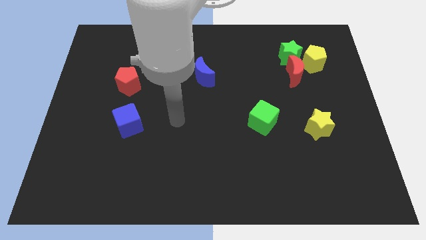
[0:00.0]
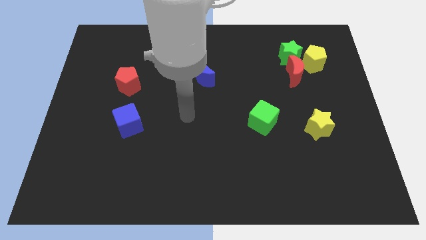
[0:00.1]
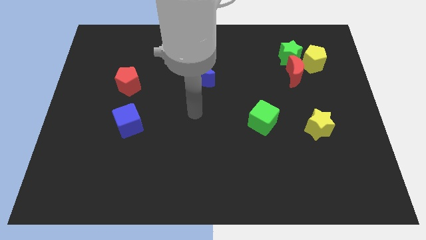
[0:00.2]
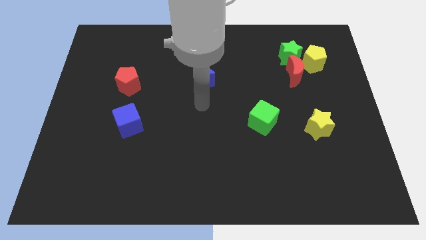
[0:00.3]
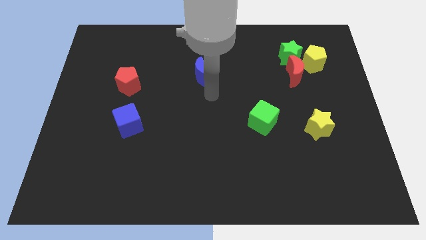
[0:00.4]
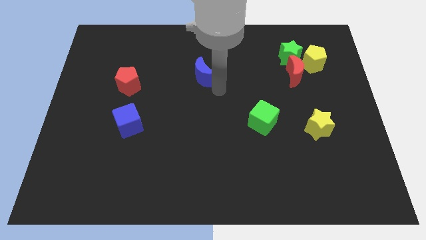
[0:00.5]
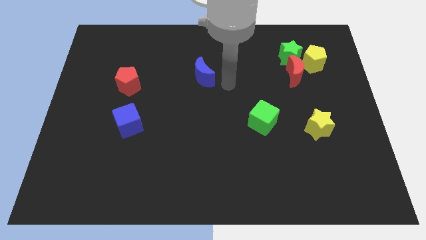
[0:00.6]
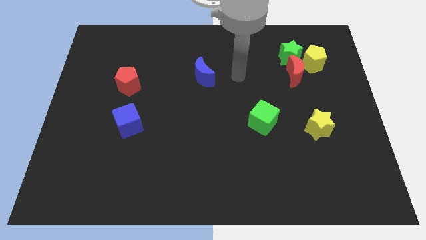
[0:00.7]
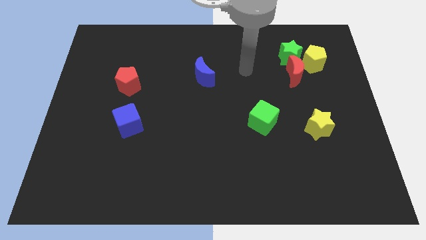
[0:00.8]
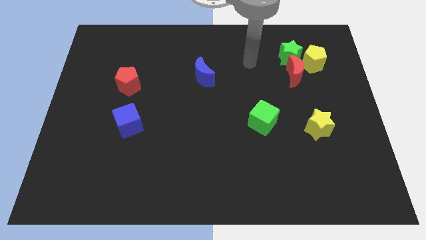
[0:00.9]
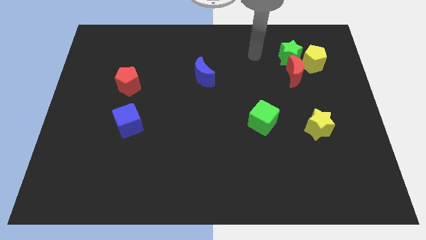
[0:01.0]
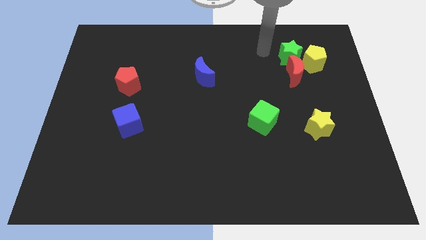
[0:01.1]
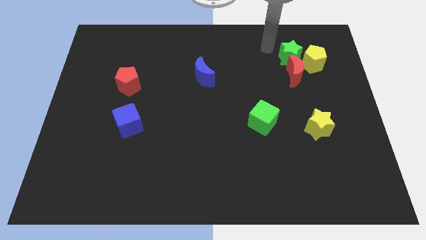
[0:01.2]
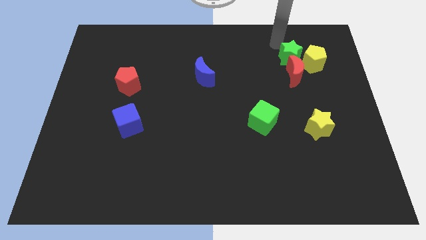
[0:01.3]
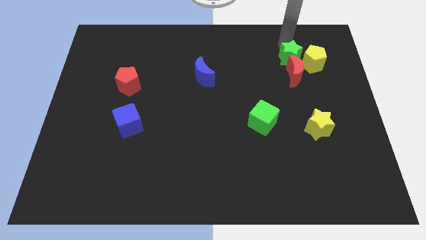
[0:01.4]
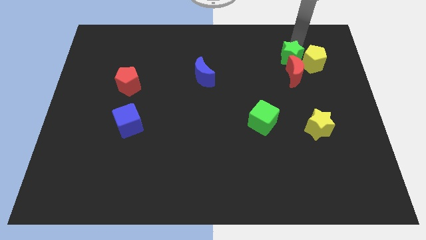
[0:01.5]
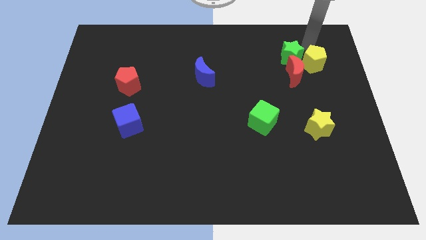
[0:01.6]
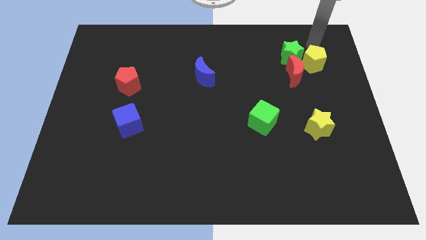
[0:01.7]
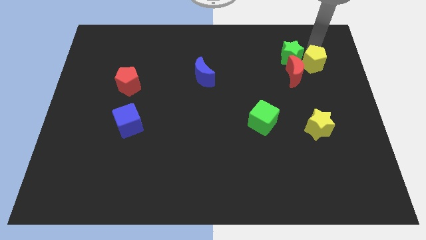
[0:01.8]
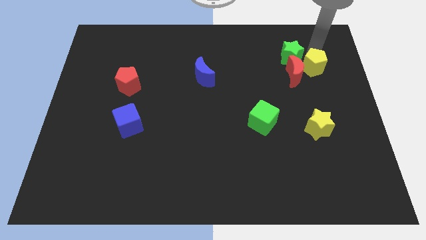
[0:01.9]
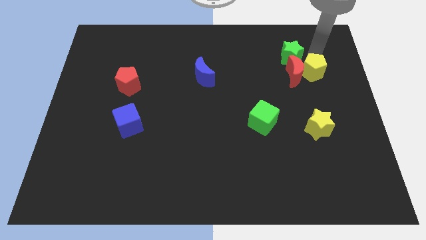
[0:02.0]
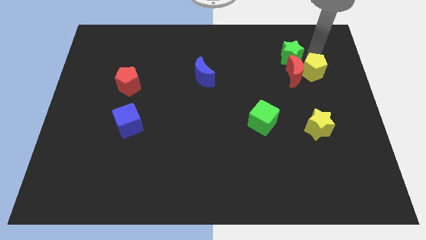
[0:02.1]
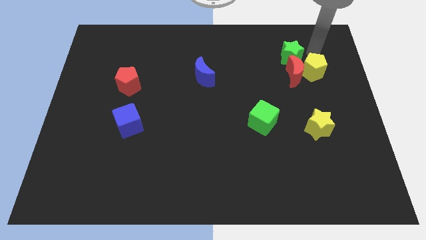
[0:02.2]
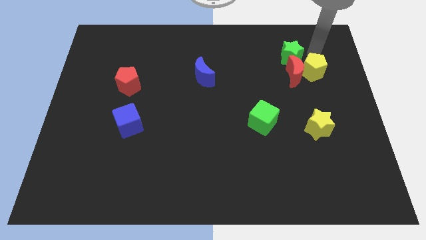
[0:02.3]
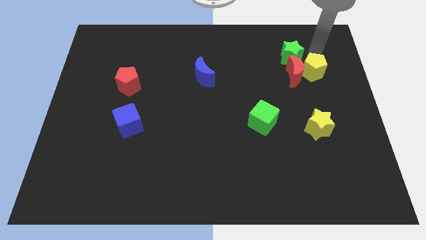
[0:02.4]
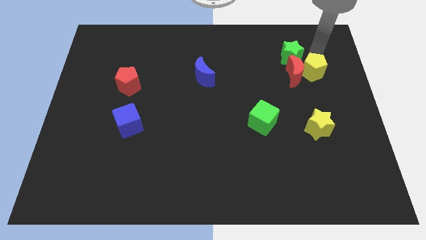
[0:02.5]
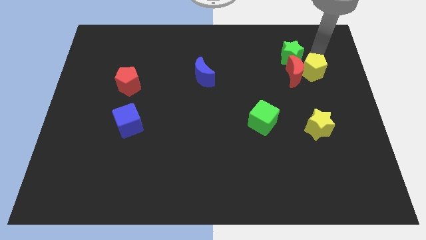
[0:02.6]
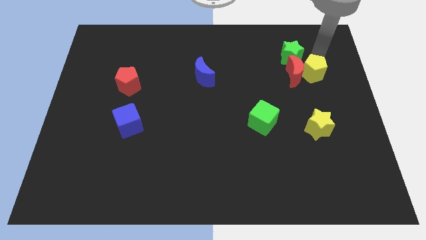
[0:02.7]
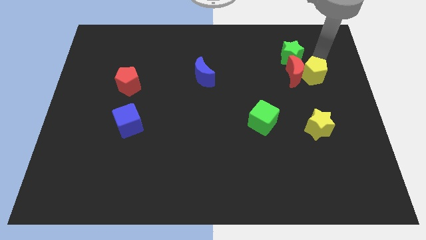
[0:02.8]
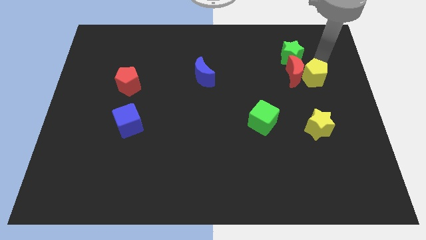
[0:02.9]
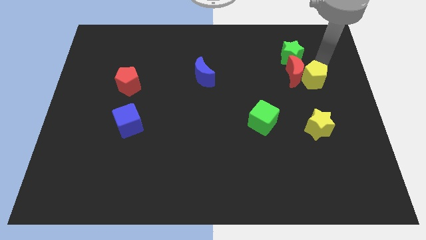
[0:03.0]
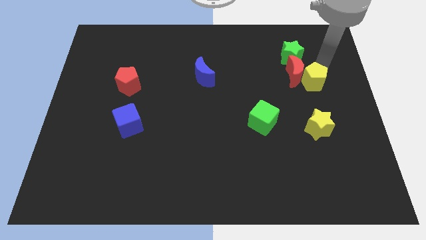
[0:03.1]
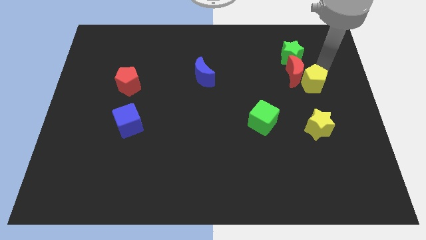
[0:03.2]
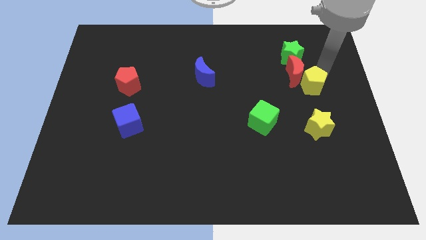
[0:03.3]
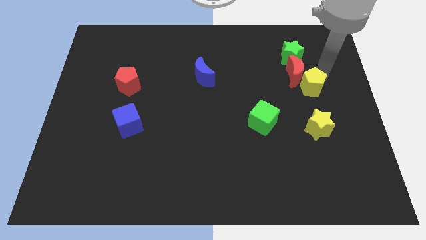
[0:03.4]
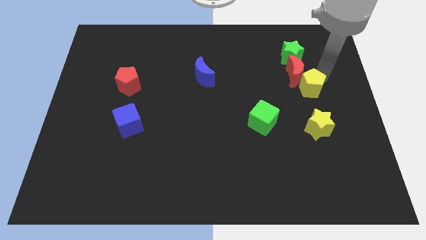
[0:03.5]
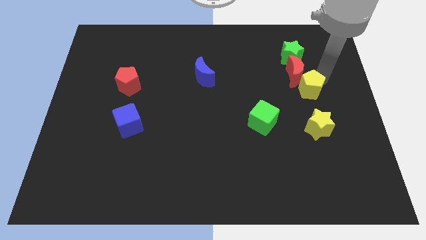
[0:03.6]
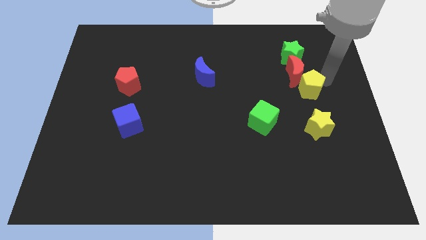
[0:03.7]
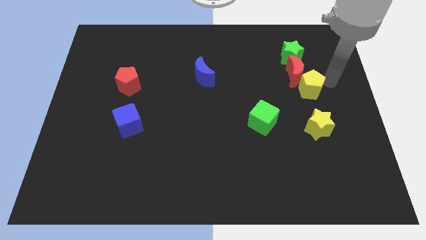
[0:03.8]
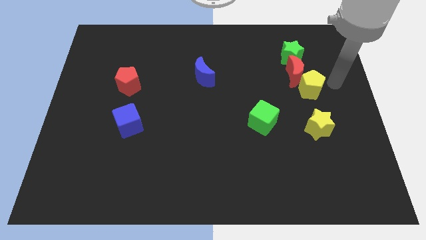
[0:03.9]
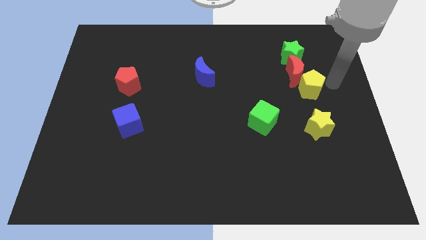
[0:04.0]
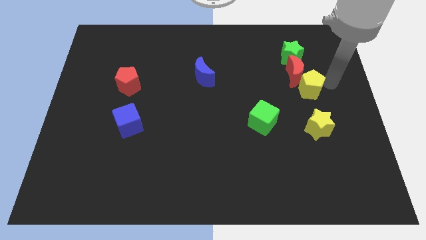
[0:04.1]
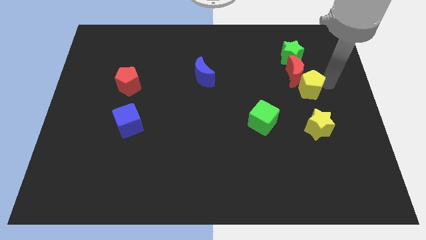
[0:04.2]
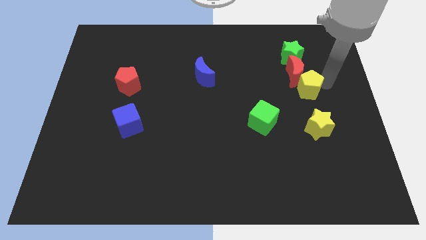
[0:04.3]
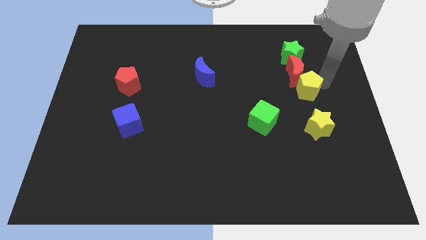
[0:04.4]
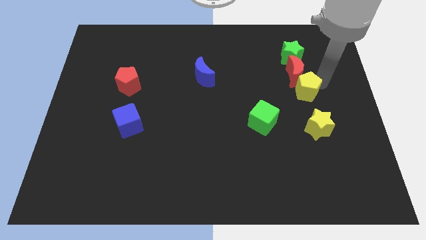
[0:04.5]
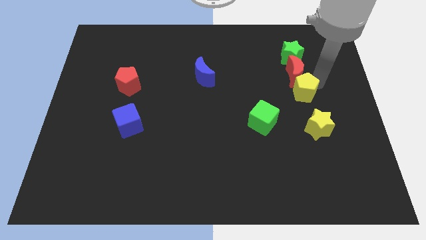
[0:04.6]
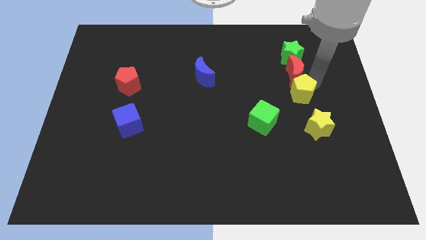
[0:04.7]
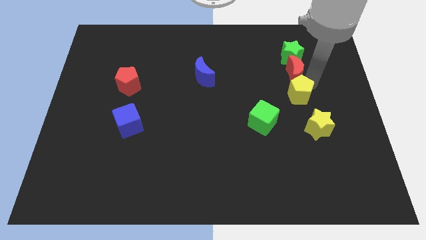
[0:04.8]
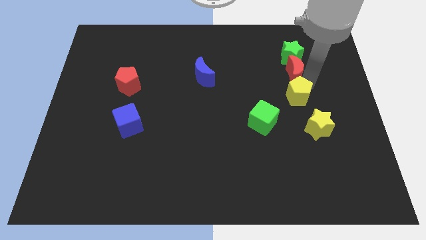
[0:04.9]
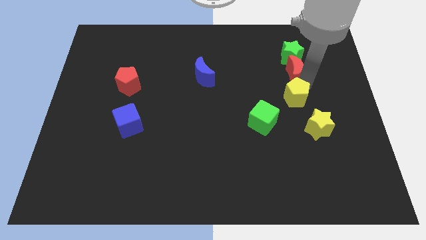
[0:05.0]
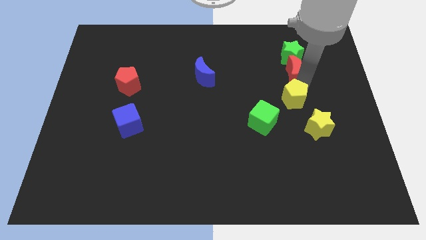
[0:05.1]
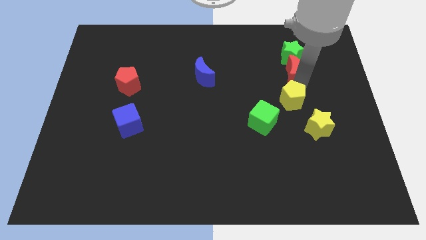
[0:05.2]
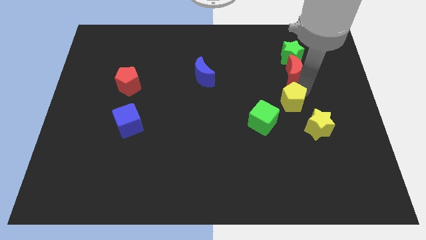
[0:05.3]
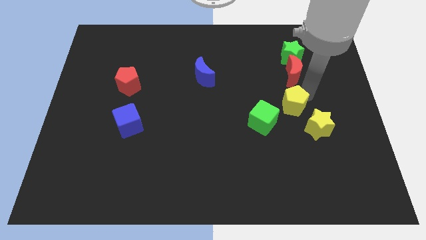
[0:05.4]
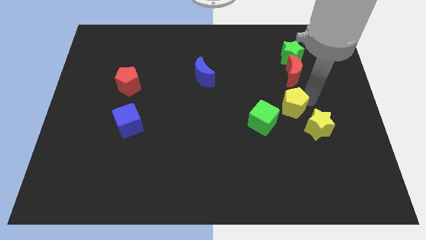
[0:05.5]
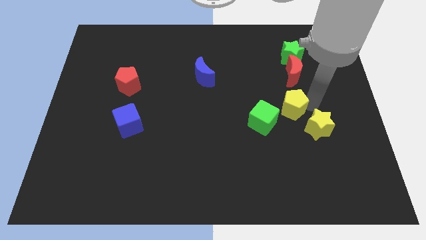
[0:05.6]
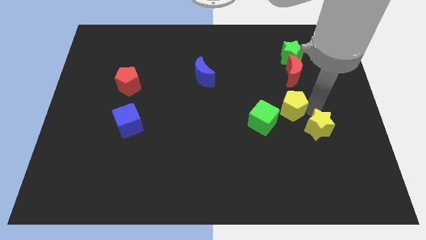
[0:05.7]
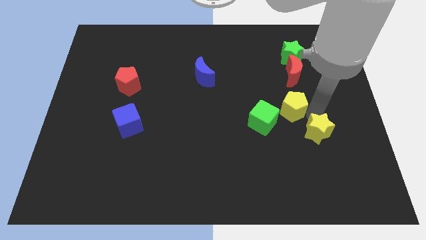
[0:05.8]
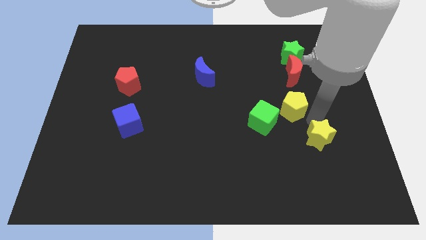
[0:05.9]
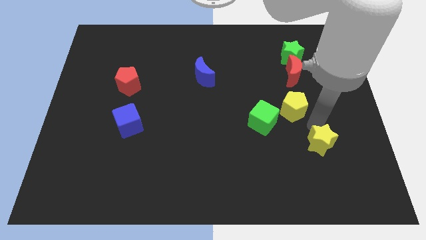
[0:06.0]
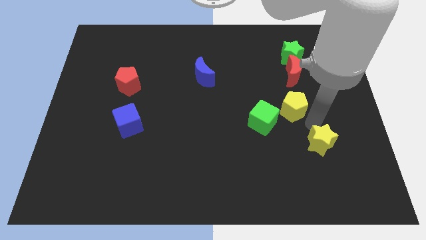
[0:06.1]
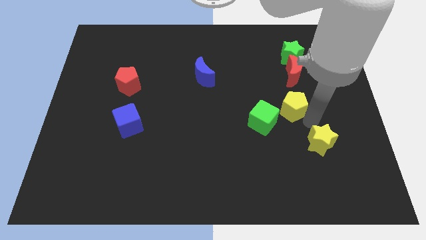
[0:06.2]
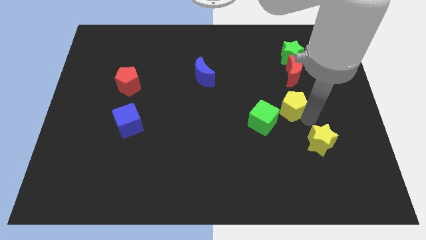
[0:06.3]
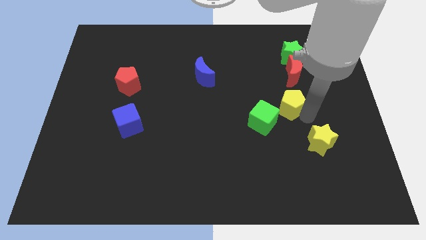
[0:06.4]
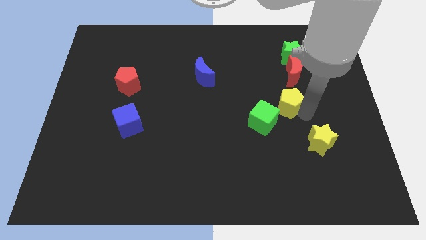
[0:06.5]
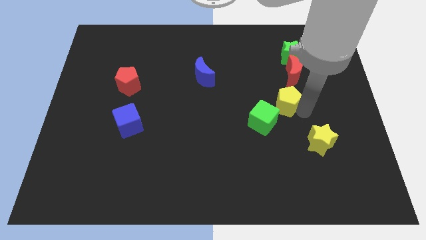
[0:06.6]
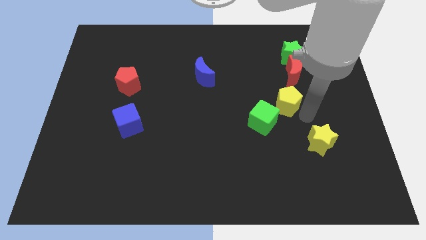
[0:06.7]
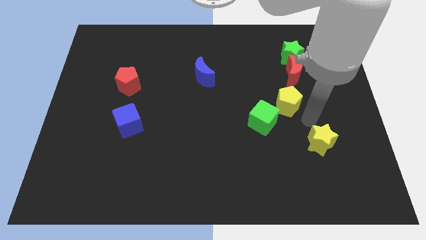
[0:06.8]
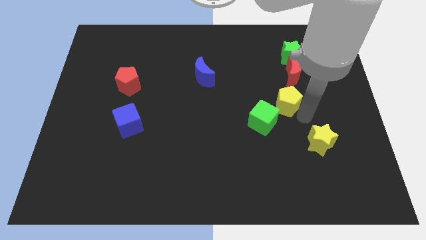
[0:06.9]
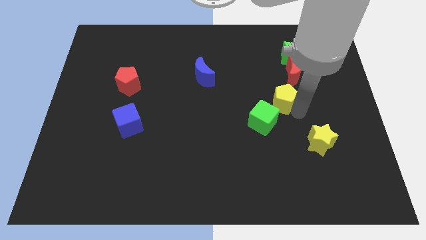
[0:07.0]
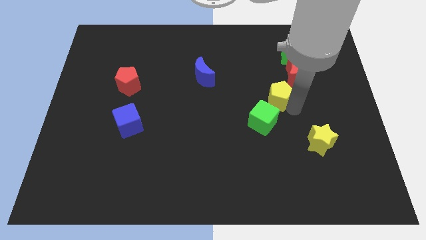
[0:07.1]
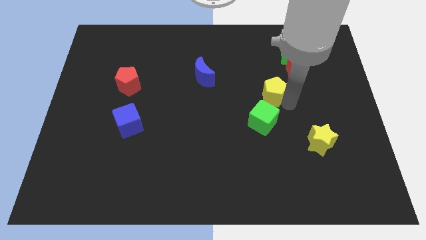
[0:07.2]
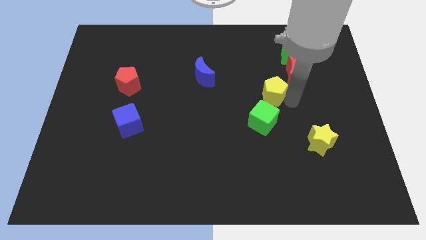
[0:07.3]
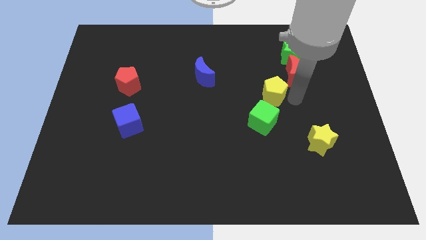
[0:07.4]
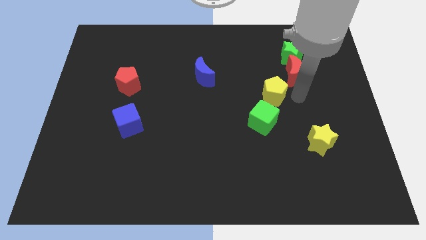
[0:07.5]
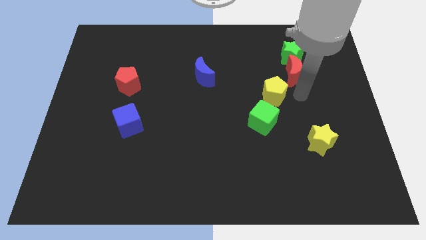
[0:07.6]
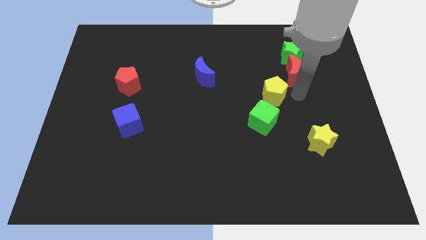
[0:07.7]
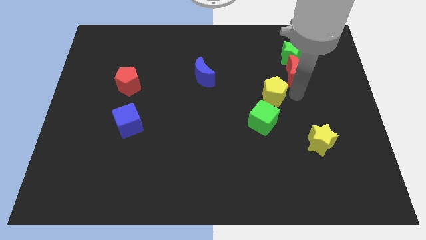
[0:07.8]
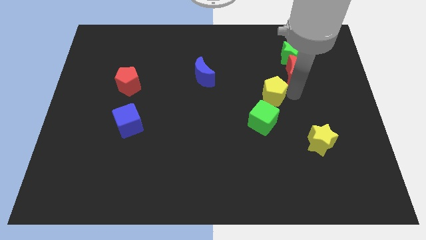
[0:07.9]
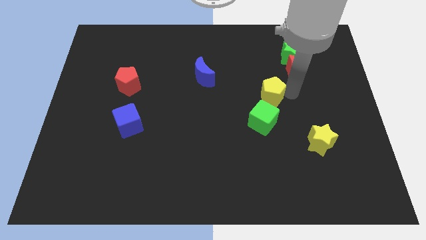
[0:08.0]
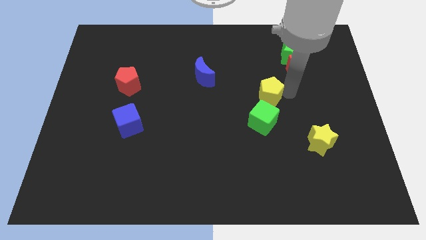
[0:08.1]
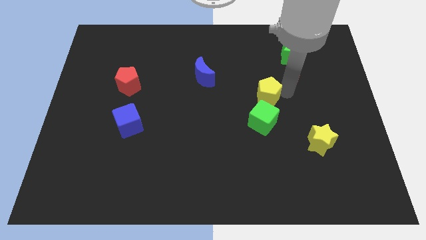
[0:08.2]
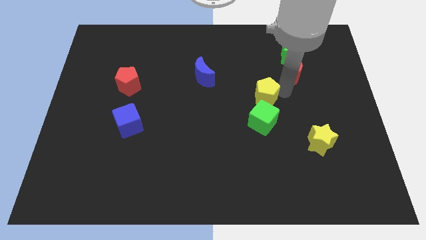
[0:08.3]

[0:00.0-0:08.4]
push the yellow pentagon to the middle of the board
